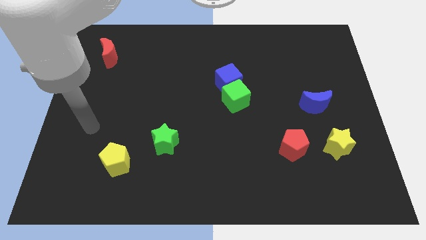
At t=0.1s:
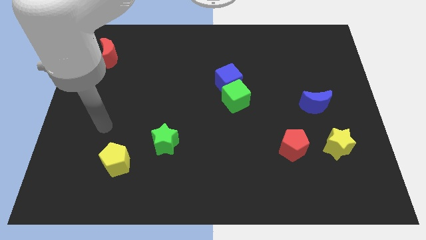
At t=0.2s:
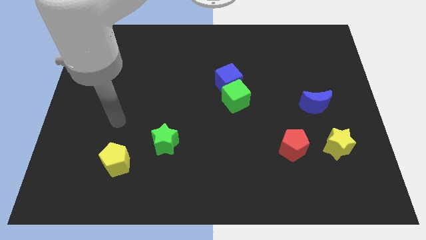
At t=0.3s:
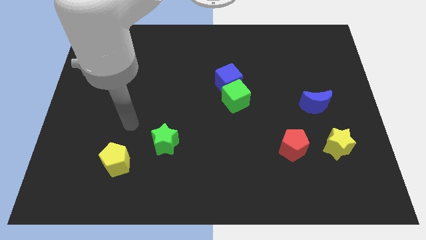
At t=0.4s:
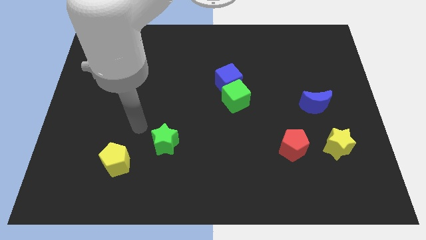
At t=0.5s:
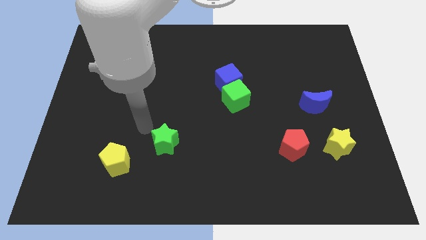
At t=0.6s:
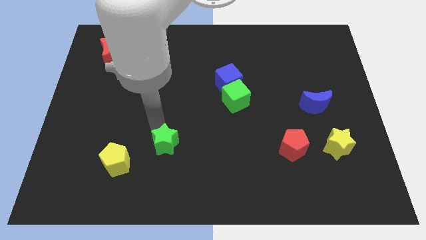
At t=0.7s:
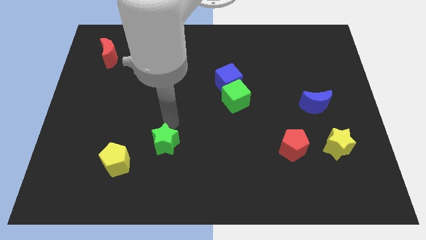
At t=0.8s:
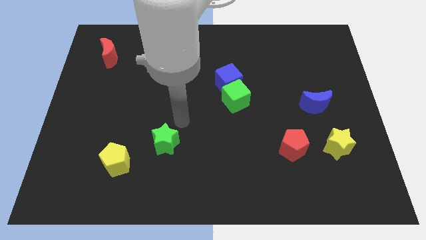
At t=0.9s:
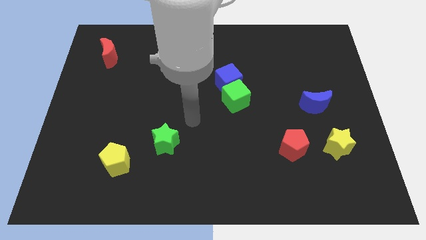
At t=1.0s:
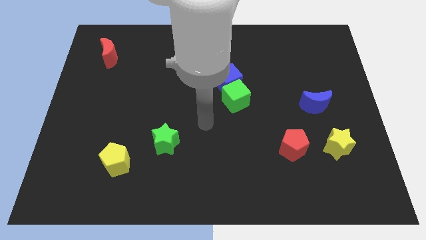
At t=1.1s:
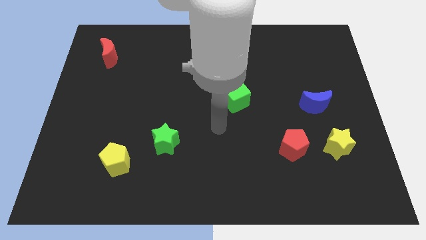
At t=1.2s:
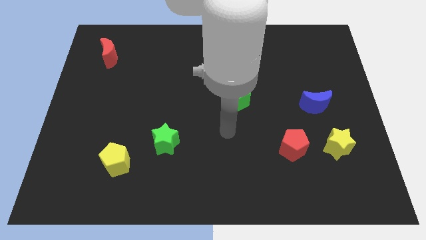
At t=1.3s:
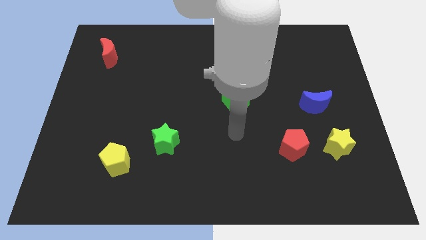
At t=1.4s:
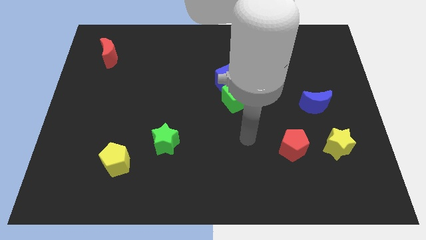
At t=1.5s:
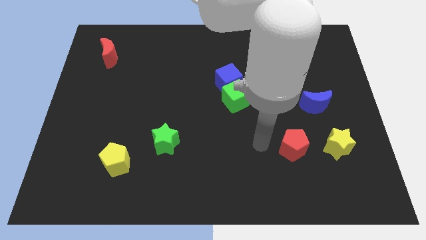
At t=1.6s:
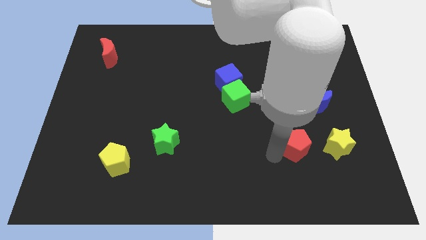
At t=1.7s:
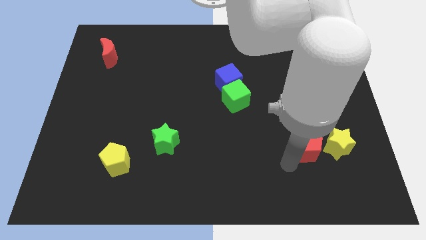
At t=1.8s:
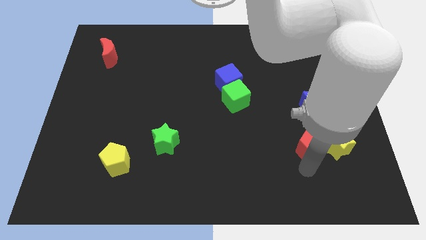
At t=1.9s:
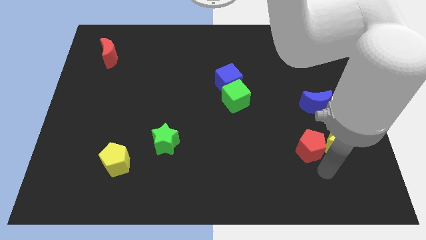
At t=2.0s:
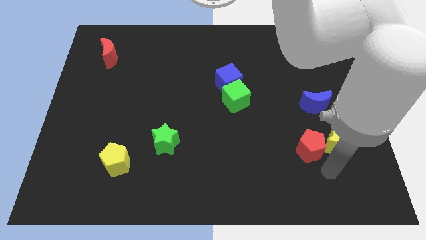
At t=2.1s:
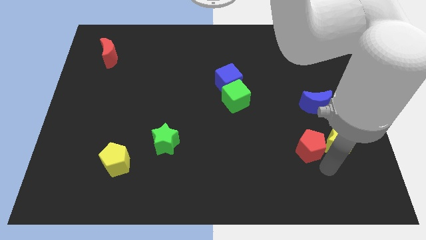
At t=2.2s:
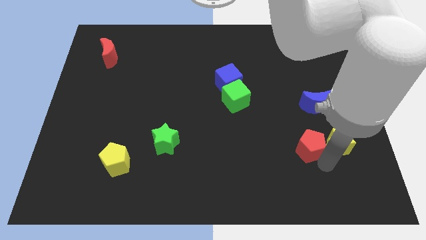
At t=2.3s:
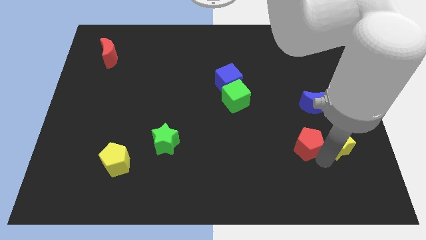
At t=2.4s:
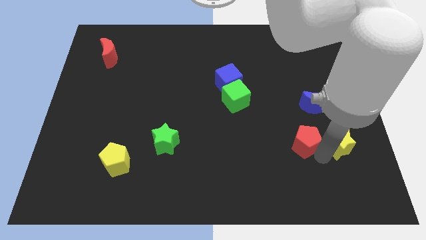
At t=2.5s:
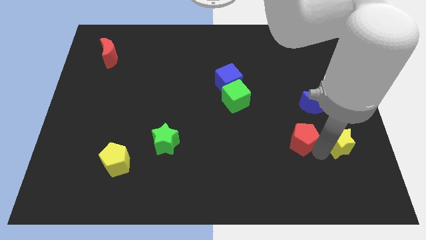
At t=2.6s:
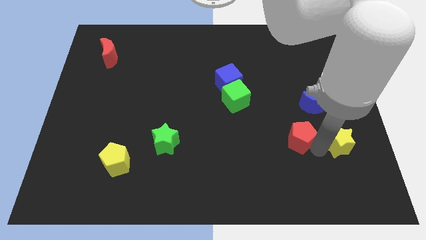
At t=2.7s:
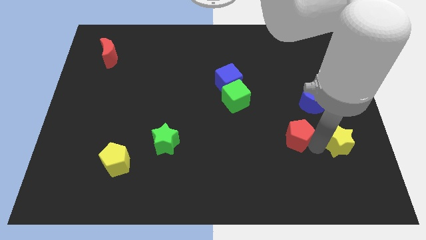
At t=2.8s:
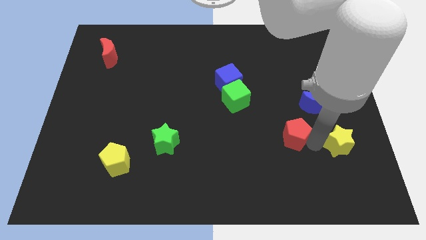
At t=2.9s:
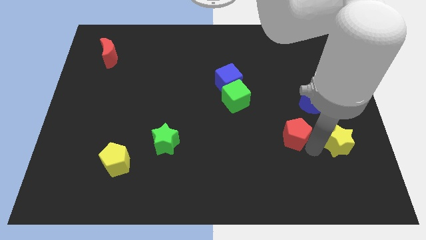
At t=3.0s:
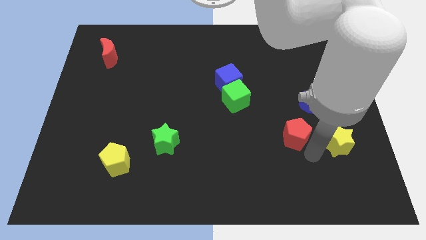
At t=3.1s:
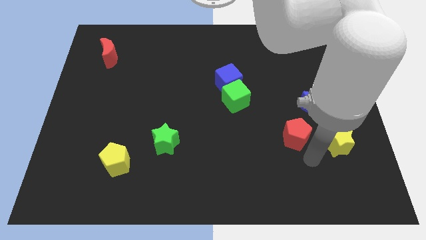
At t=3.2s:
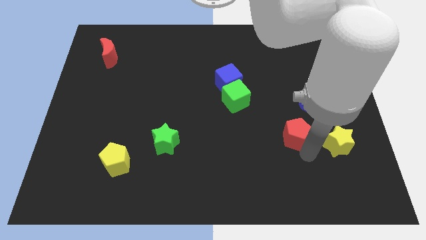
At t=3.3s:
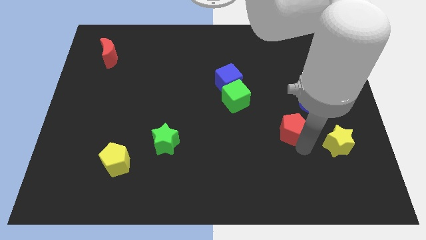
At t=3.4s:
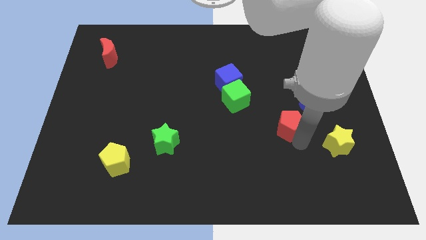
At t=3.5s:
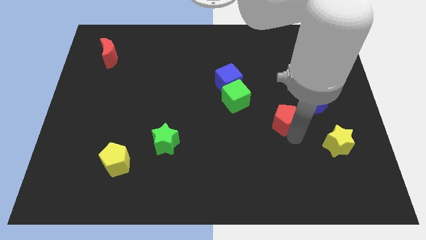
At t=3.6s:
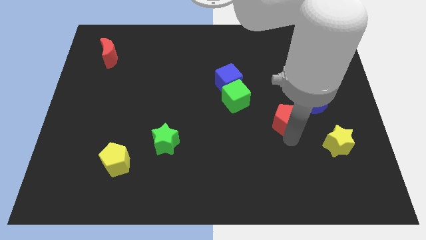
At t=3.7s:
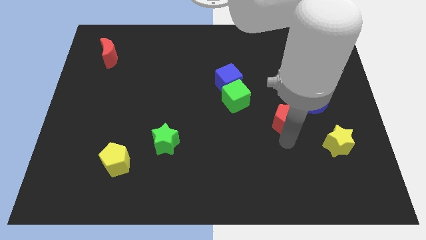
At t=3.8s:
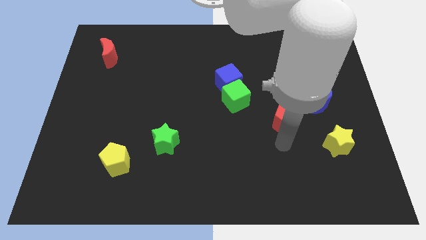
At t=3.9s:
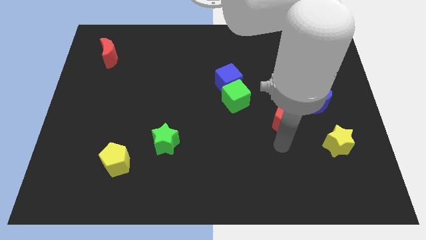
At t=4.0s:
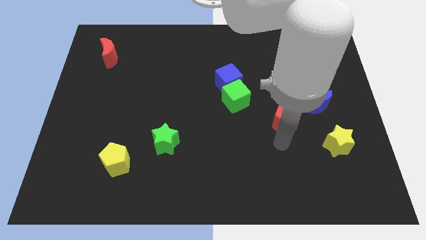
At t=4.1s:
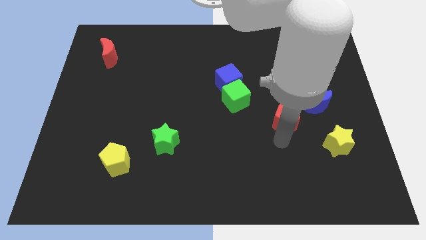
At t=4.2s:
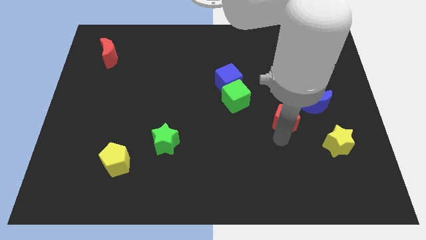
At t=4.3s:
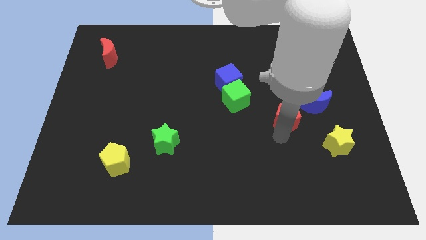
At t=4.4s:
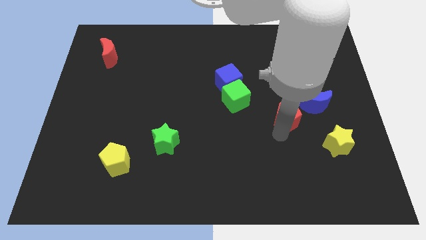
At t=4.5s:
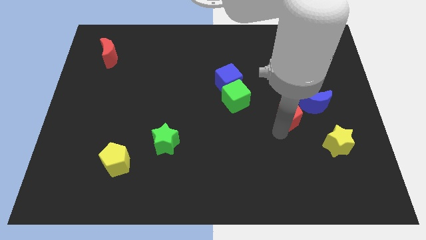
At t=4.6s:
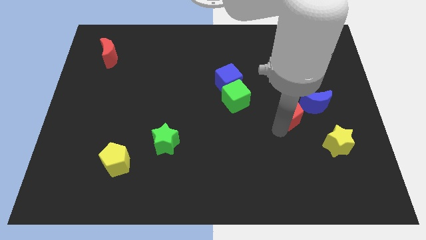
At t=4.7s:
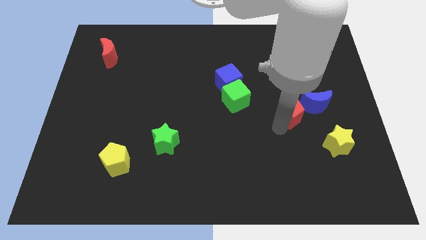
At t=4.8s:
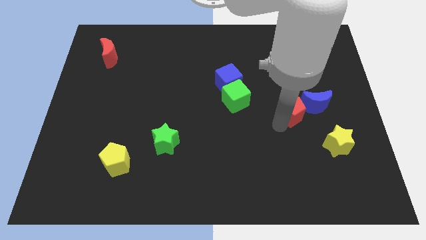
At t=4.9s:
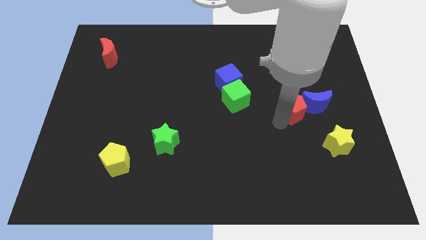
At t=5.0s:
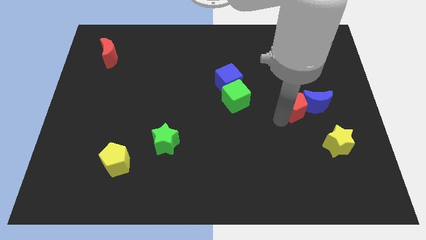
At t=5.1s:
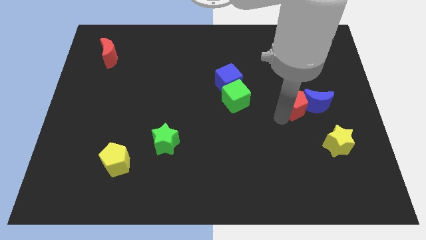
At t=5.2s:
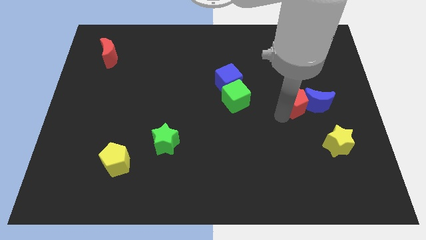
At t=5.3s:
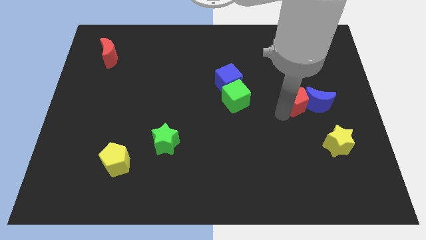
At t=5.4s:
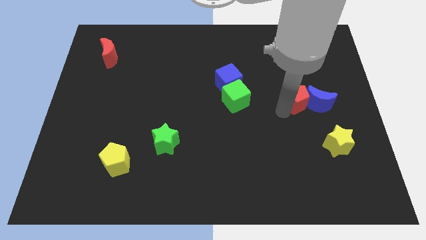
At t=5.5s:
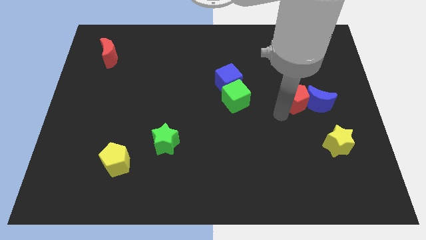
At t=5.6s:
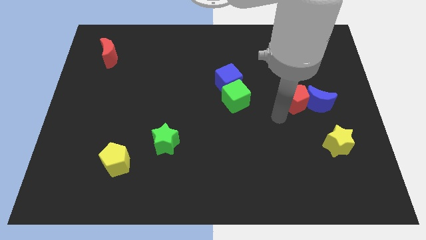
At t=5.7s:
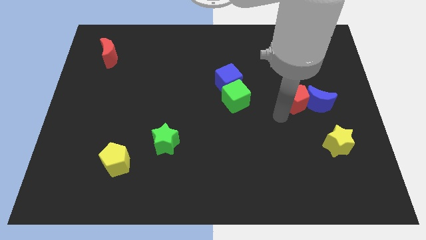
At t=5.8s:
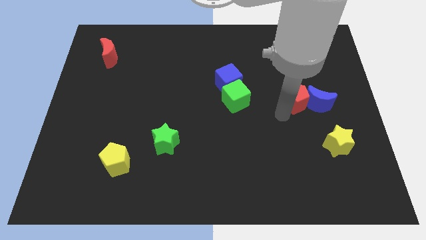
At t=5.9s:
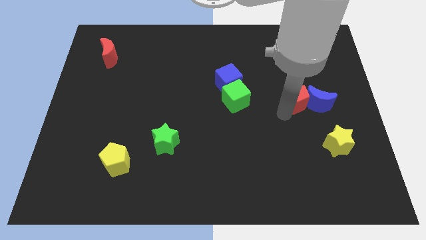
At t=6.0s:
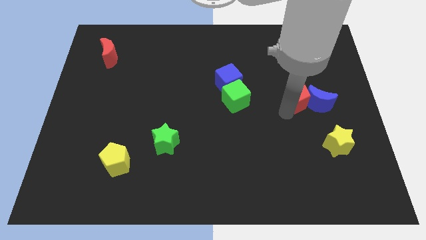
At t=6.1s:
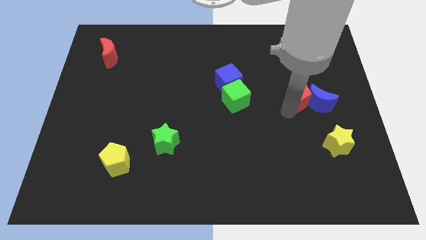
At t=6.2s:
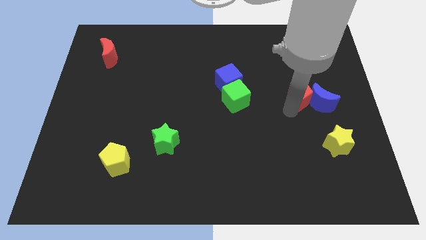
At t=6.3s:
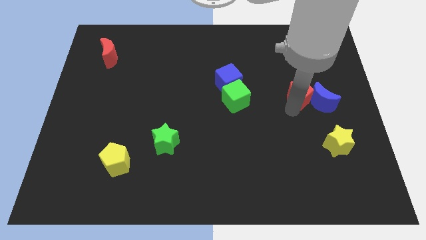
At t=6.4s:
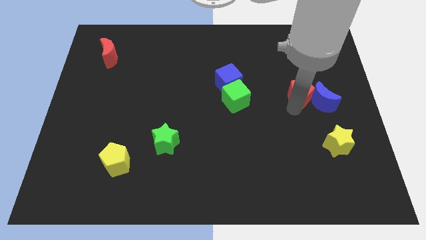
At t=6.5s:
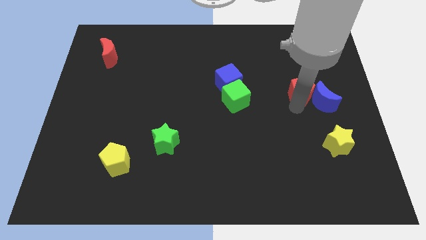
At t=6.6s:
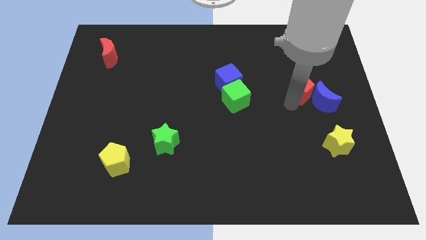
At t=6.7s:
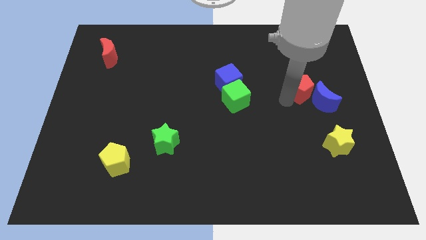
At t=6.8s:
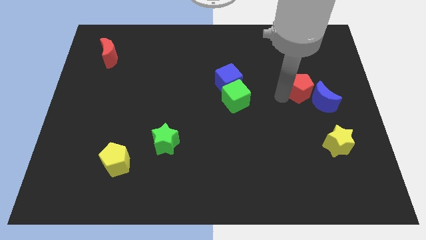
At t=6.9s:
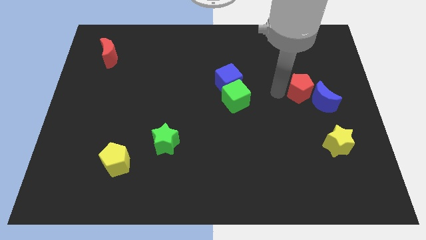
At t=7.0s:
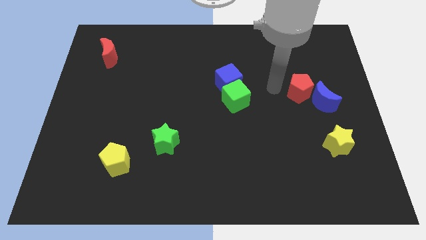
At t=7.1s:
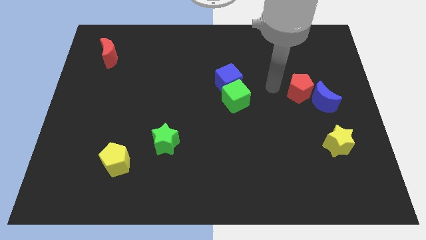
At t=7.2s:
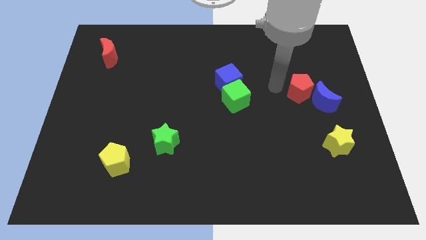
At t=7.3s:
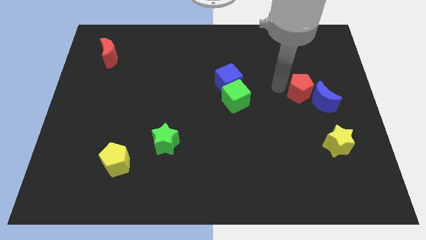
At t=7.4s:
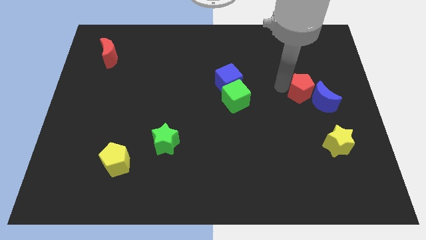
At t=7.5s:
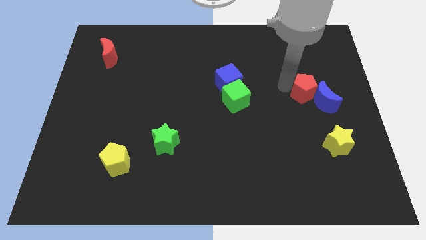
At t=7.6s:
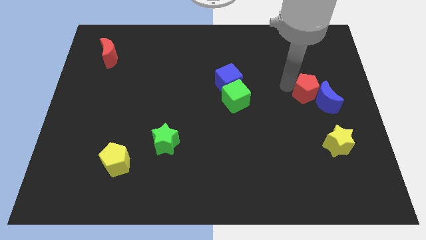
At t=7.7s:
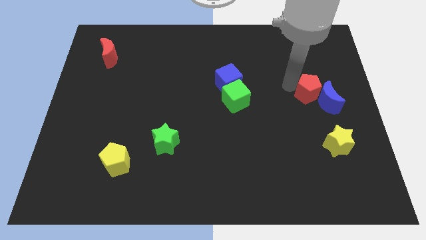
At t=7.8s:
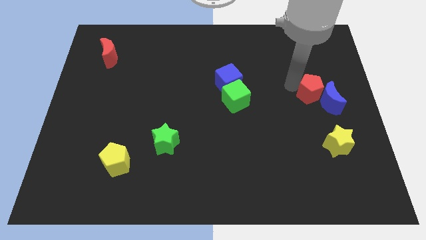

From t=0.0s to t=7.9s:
move the red pentagon to the top of the yellow star
